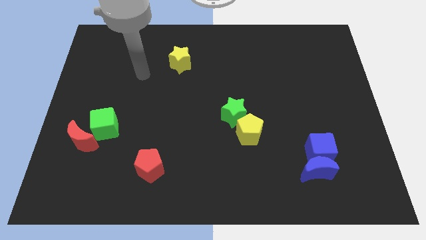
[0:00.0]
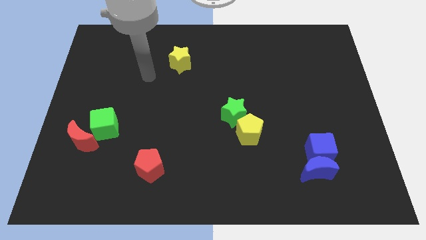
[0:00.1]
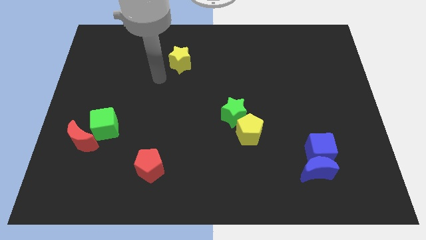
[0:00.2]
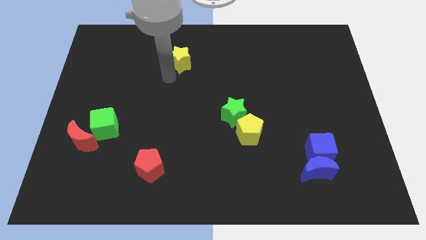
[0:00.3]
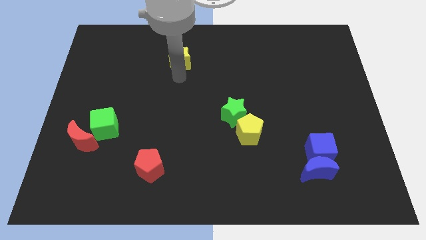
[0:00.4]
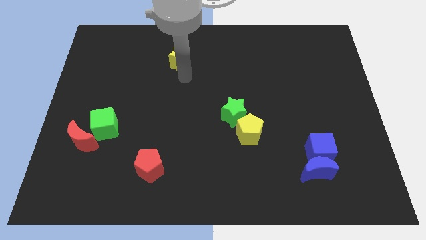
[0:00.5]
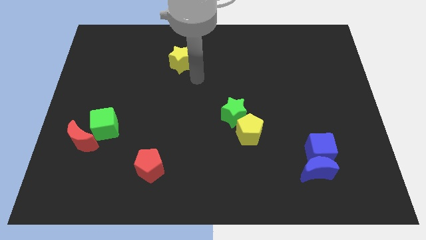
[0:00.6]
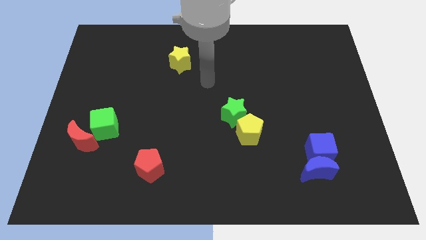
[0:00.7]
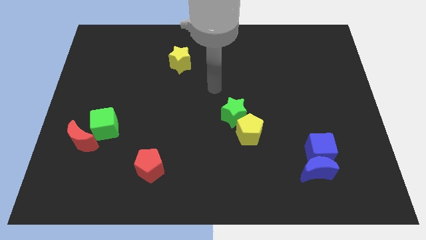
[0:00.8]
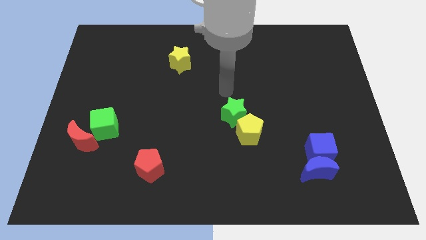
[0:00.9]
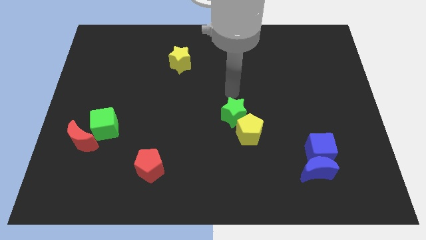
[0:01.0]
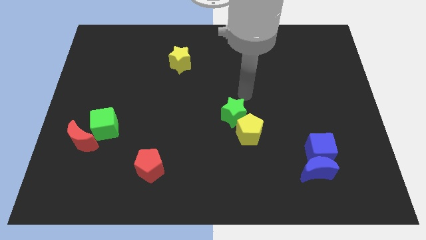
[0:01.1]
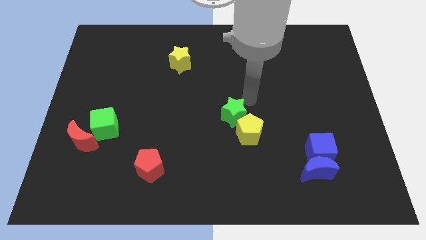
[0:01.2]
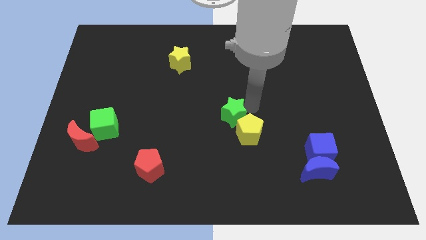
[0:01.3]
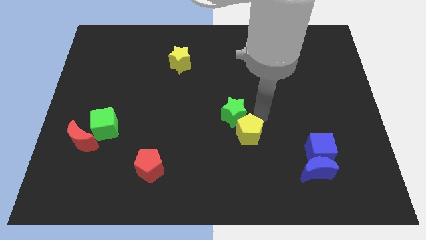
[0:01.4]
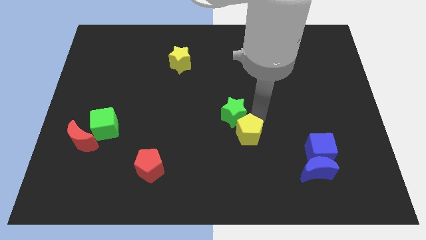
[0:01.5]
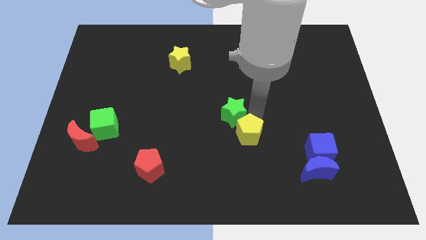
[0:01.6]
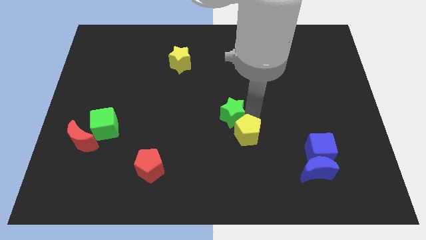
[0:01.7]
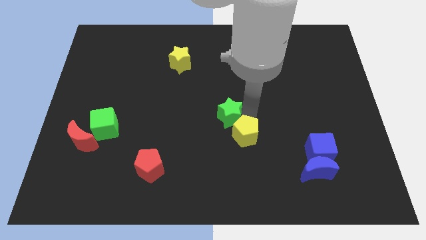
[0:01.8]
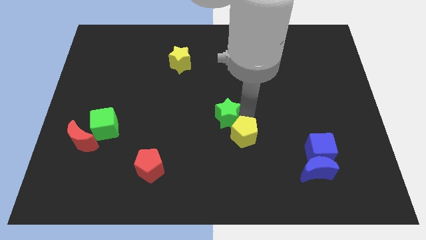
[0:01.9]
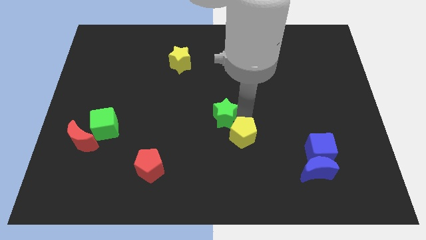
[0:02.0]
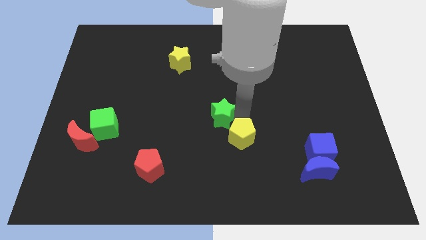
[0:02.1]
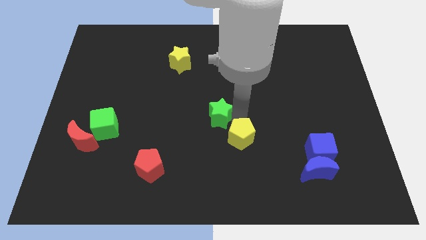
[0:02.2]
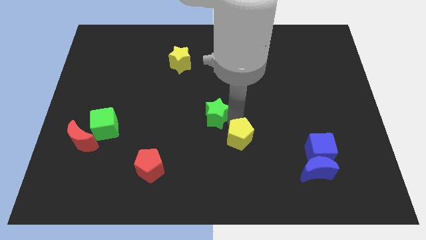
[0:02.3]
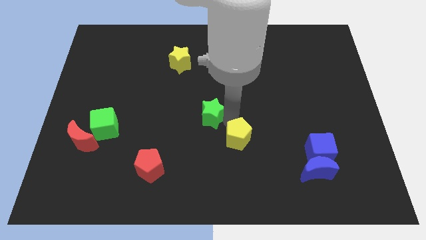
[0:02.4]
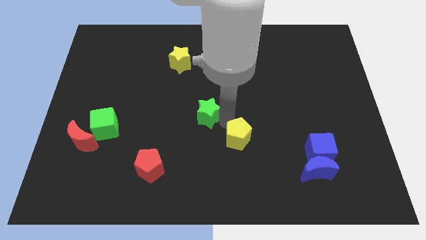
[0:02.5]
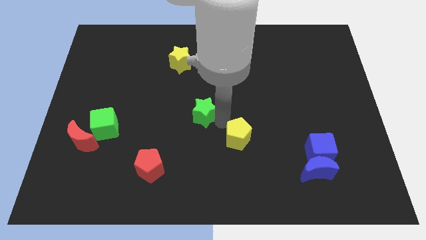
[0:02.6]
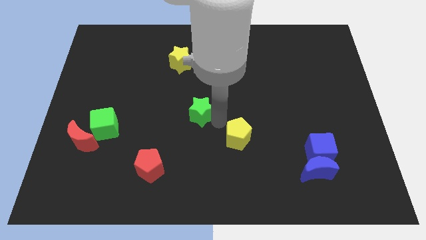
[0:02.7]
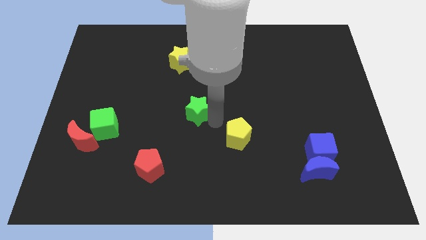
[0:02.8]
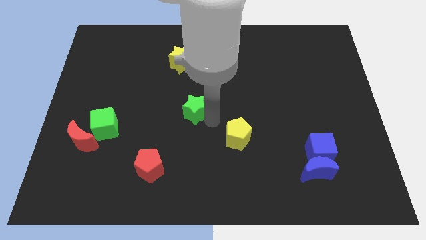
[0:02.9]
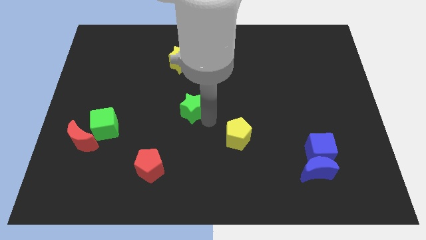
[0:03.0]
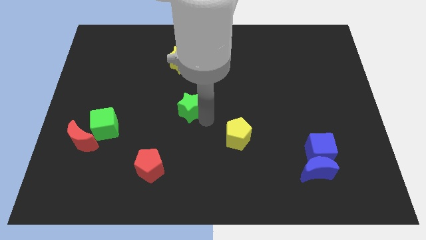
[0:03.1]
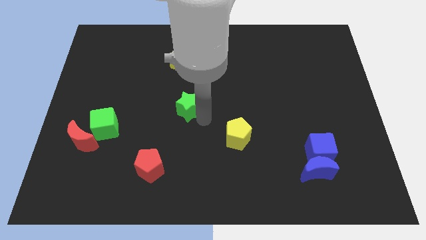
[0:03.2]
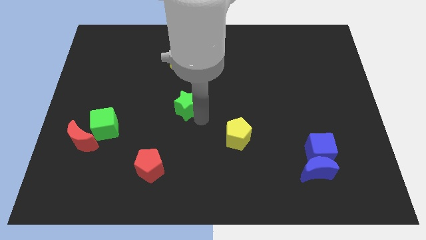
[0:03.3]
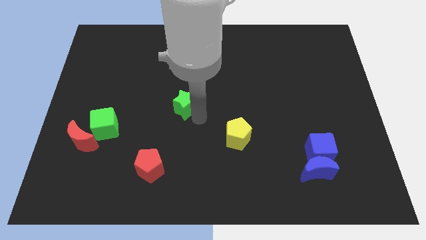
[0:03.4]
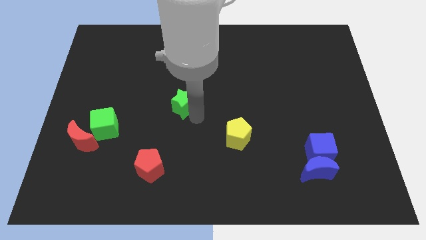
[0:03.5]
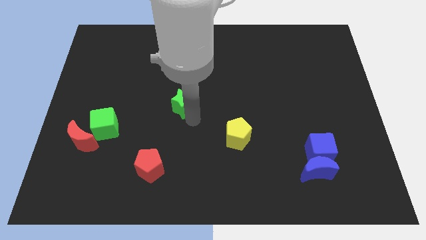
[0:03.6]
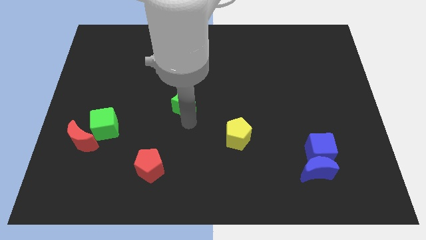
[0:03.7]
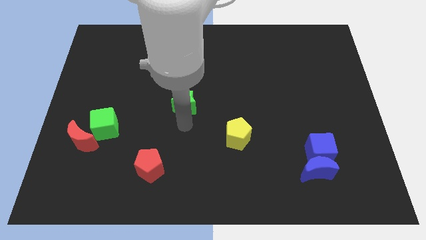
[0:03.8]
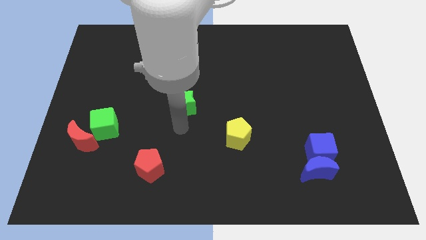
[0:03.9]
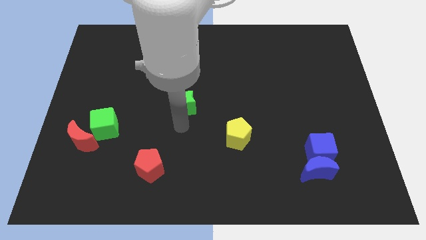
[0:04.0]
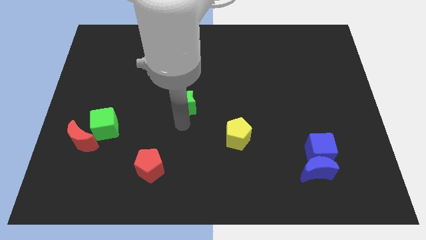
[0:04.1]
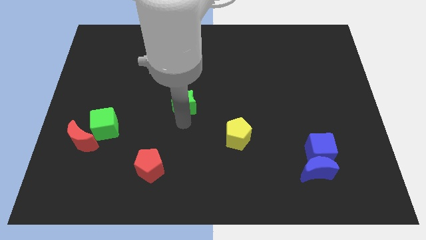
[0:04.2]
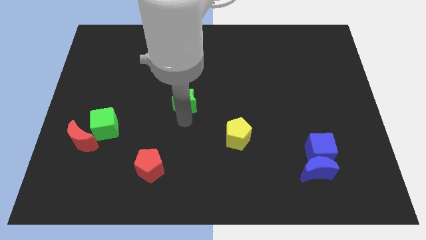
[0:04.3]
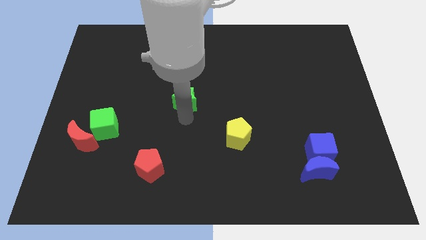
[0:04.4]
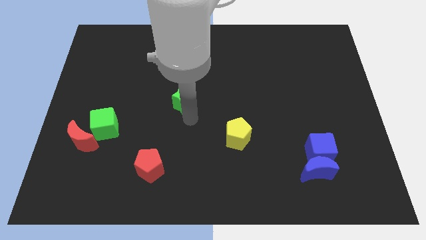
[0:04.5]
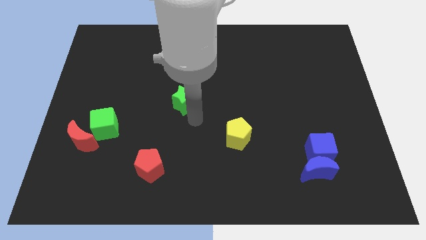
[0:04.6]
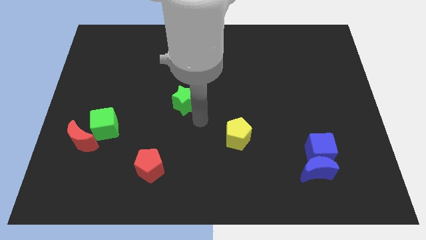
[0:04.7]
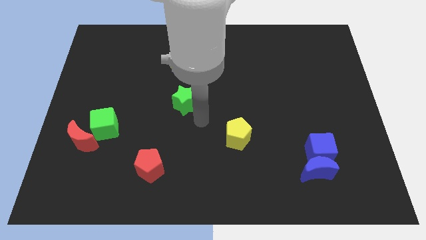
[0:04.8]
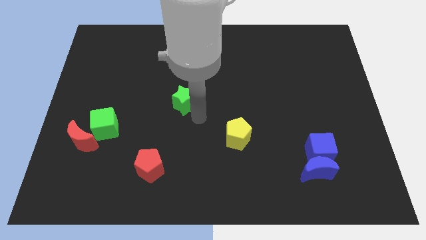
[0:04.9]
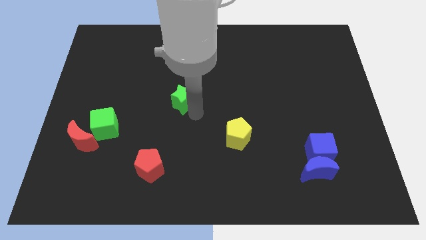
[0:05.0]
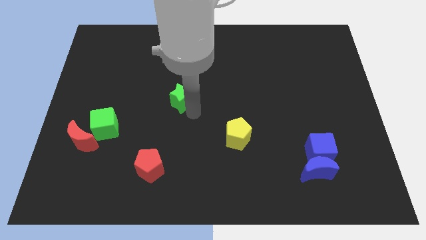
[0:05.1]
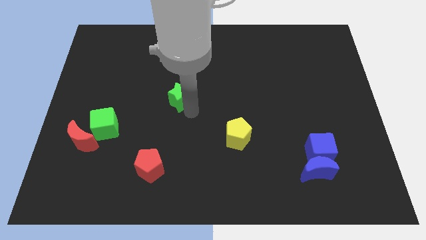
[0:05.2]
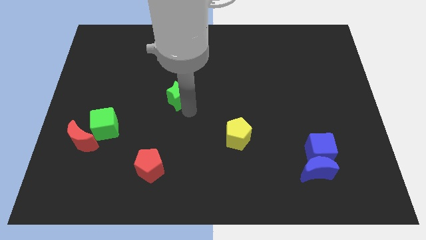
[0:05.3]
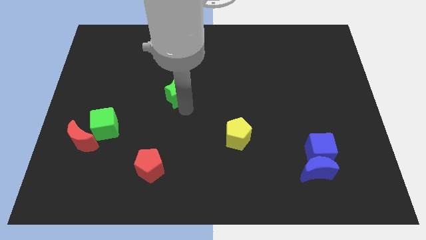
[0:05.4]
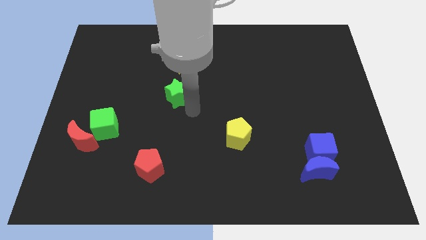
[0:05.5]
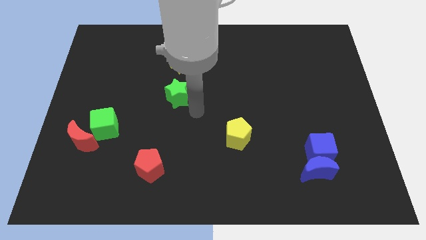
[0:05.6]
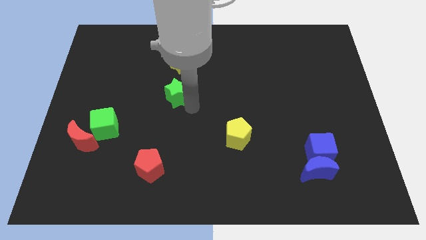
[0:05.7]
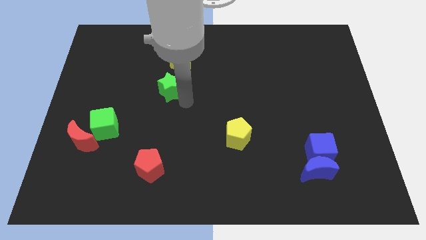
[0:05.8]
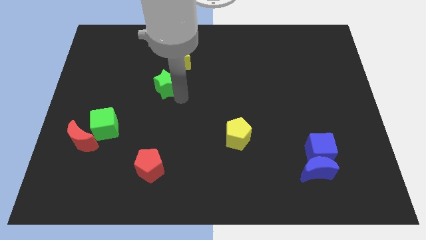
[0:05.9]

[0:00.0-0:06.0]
move the green star to the bottom left side of the yellow star

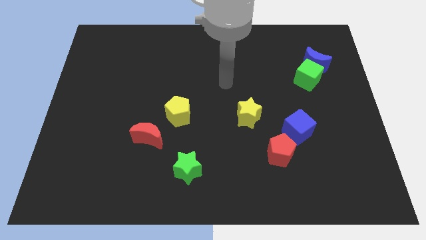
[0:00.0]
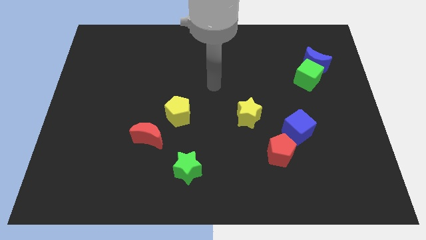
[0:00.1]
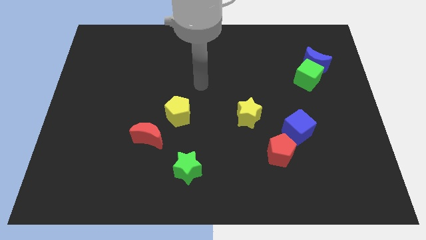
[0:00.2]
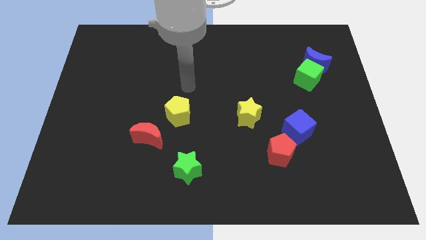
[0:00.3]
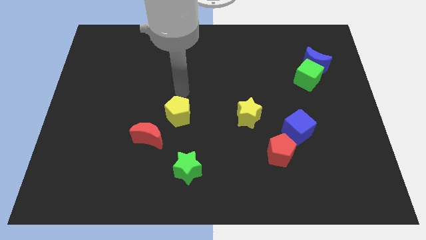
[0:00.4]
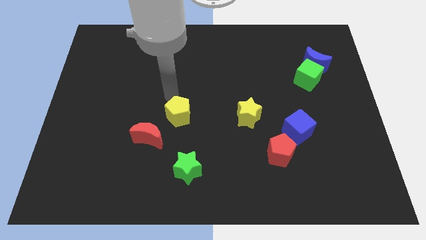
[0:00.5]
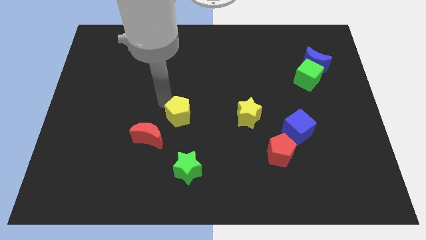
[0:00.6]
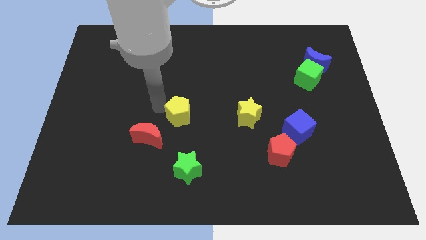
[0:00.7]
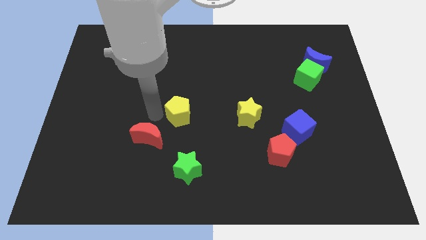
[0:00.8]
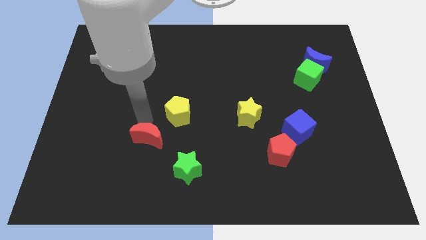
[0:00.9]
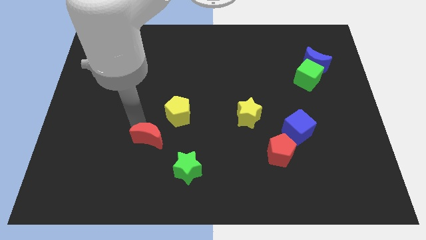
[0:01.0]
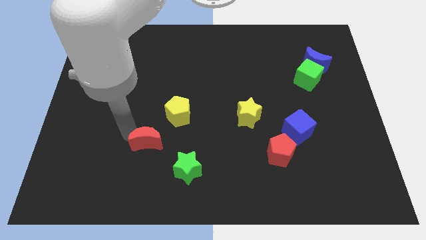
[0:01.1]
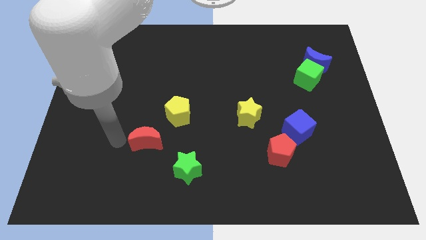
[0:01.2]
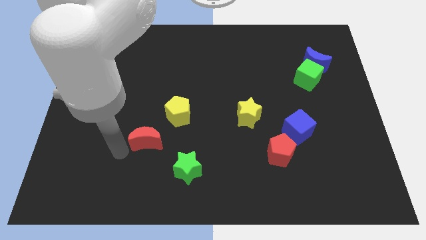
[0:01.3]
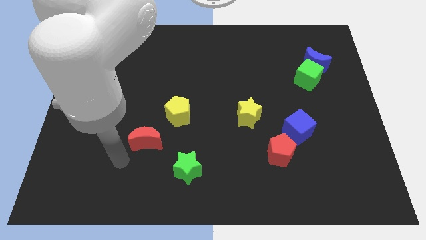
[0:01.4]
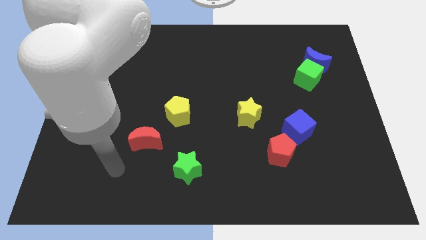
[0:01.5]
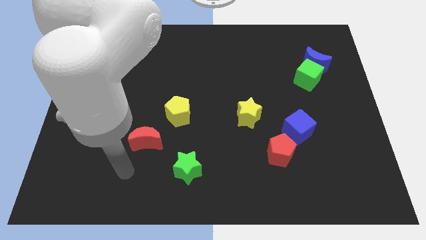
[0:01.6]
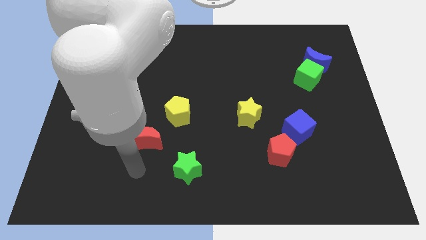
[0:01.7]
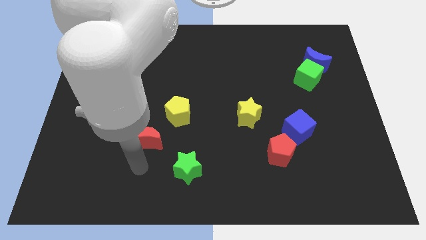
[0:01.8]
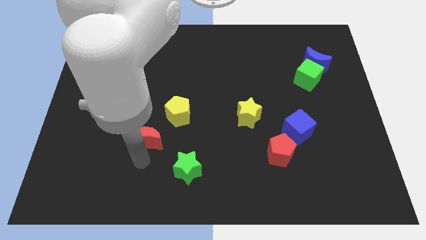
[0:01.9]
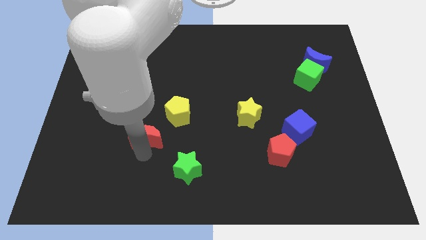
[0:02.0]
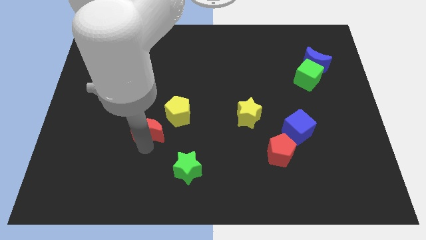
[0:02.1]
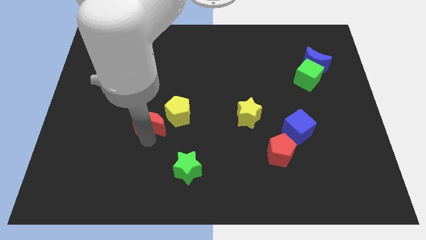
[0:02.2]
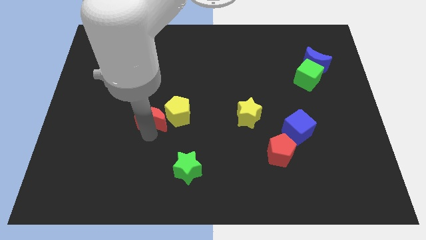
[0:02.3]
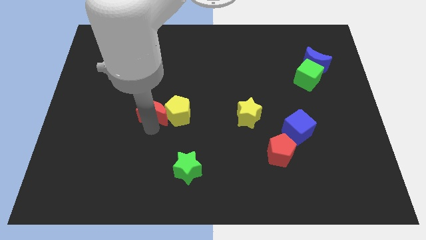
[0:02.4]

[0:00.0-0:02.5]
put the red moon diagonally up and to the left of the yellow pentagon
